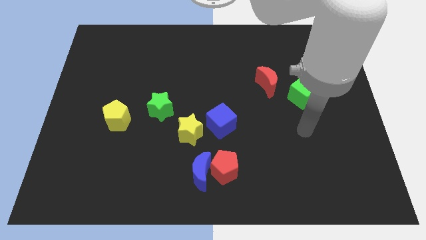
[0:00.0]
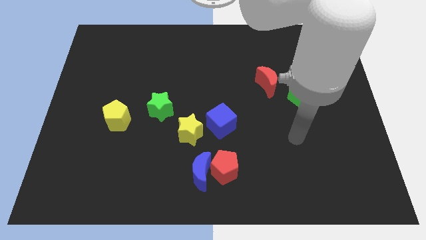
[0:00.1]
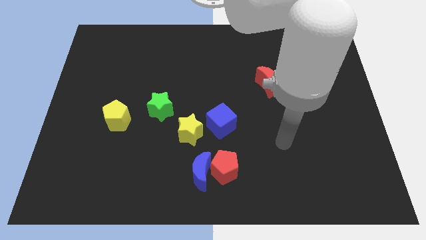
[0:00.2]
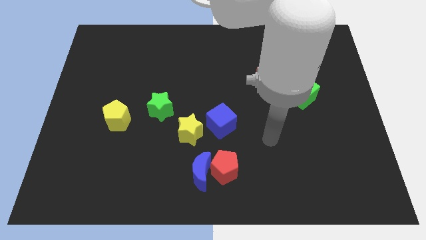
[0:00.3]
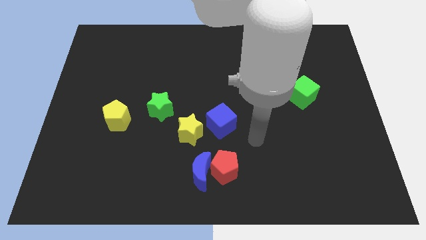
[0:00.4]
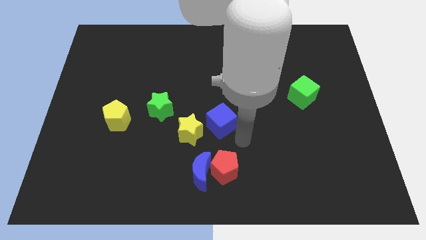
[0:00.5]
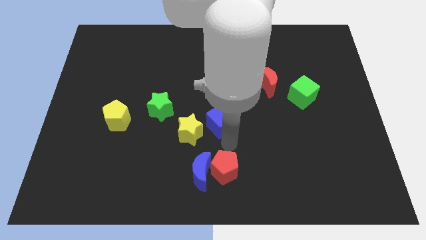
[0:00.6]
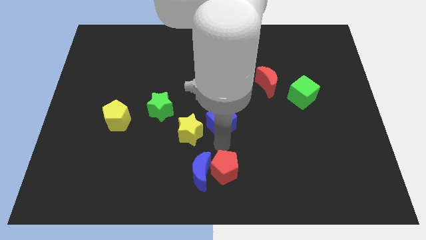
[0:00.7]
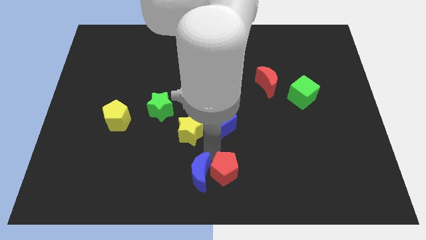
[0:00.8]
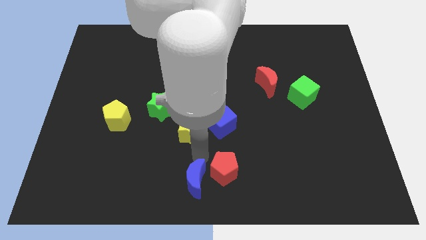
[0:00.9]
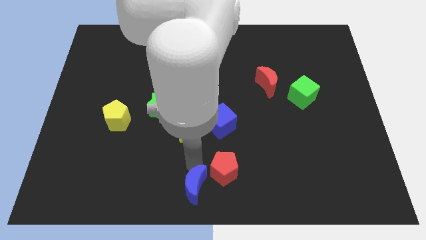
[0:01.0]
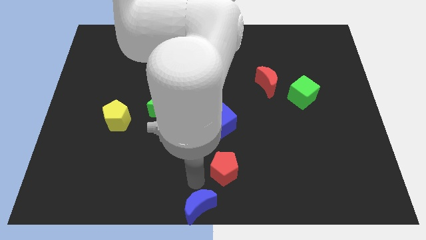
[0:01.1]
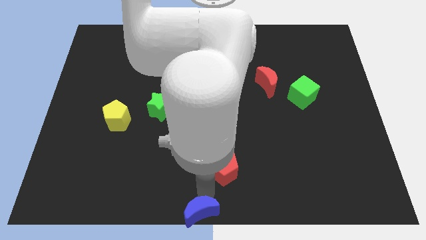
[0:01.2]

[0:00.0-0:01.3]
move the red pentagon away from the blue moon

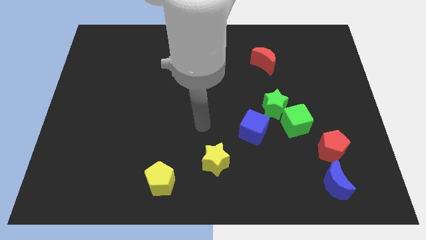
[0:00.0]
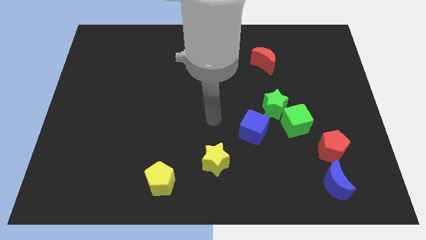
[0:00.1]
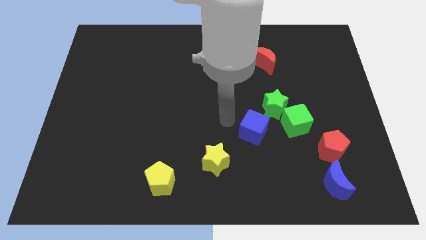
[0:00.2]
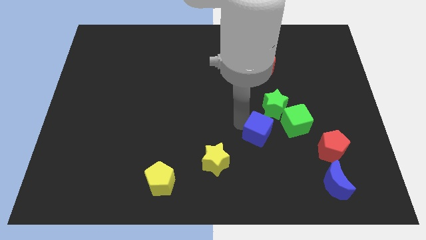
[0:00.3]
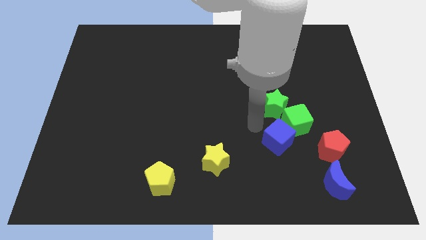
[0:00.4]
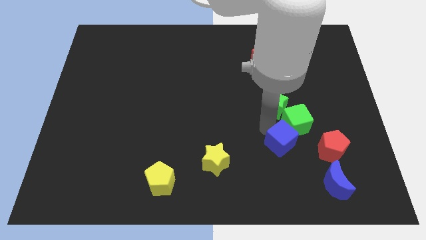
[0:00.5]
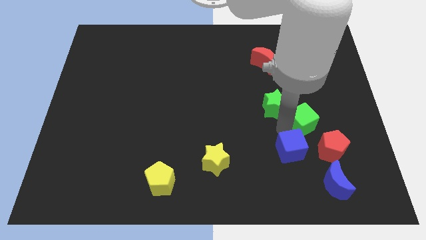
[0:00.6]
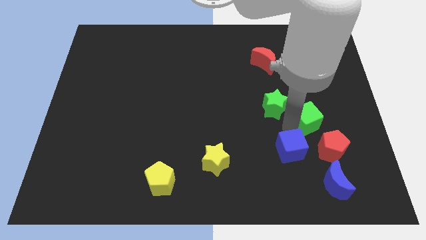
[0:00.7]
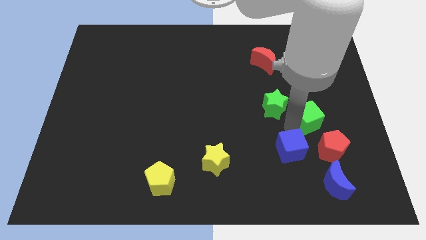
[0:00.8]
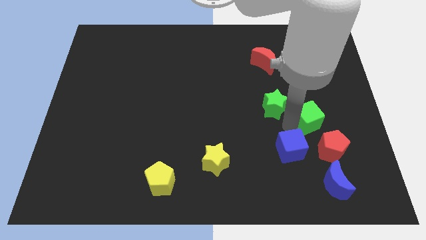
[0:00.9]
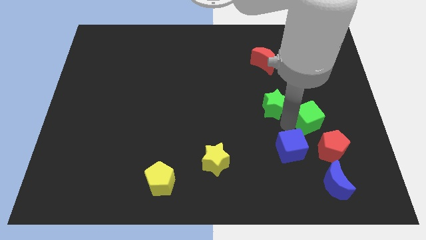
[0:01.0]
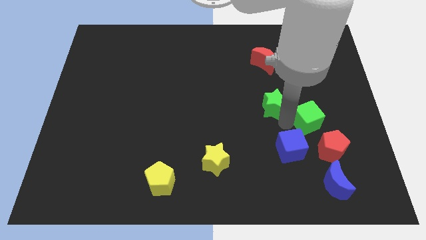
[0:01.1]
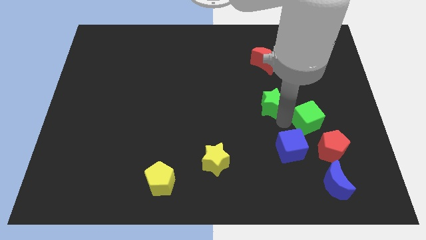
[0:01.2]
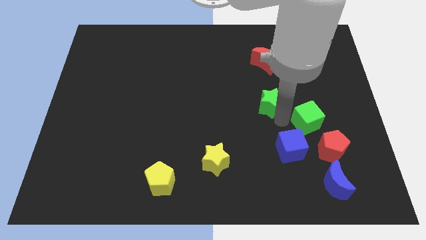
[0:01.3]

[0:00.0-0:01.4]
pull the green star apart from the green cube and blue cube

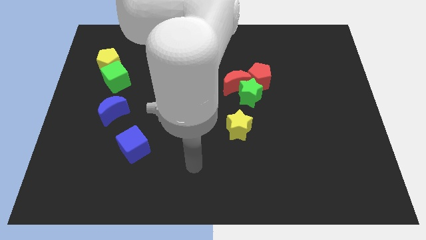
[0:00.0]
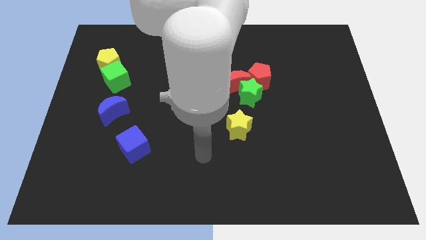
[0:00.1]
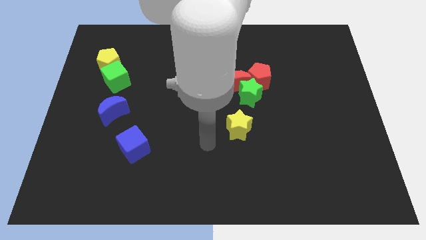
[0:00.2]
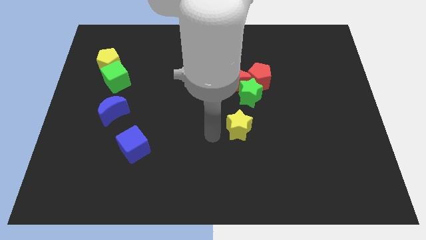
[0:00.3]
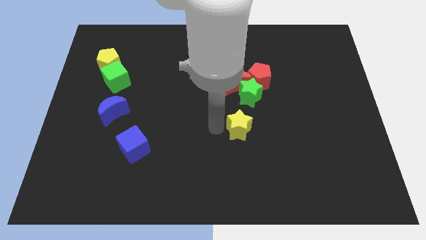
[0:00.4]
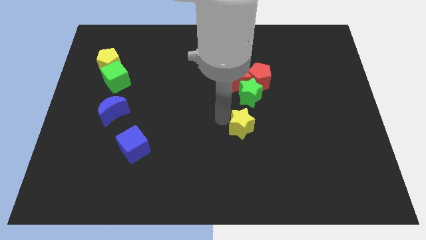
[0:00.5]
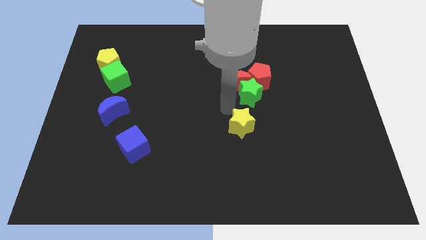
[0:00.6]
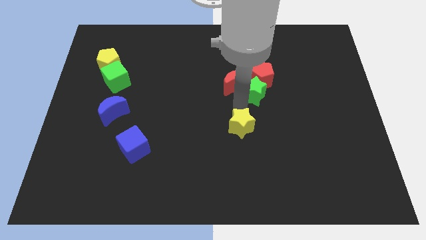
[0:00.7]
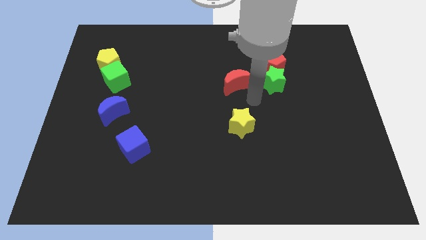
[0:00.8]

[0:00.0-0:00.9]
move the red moon away from the green star and red pentagon

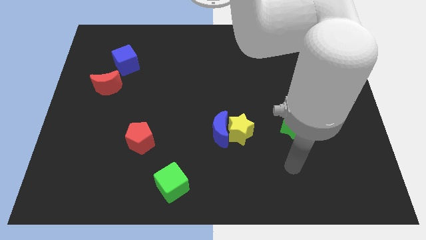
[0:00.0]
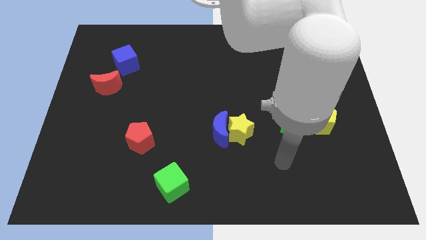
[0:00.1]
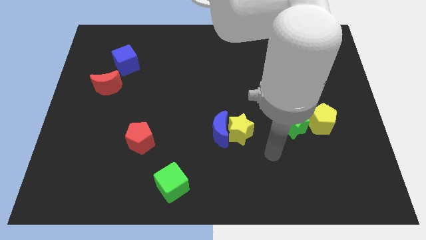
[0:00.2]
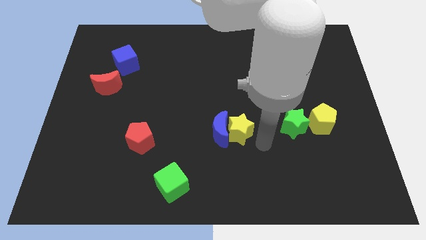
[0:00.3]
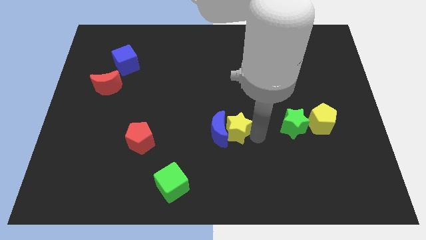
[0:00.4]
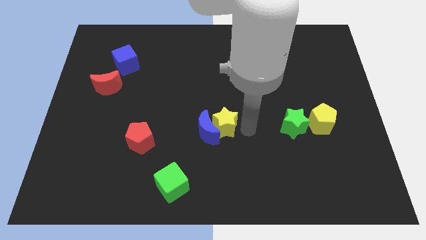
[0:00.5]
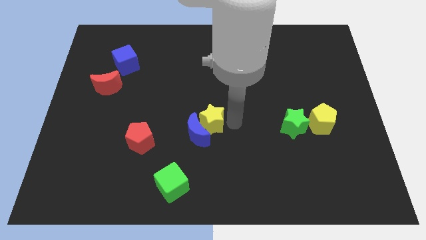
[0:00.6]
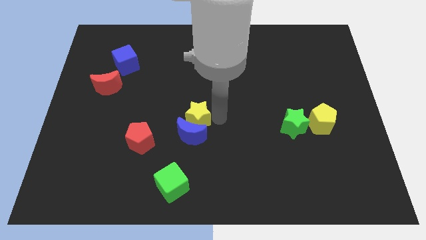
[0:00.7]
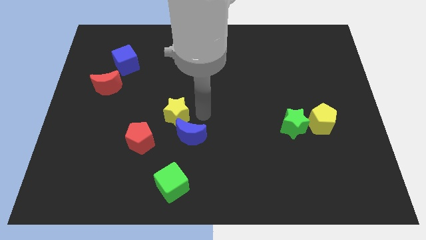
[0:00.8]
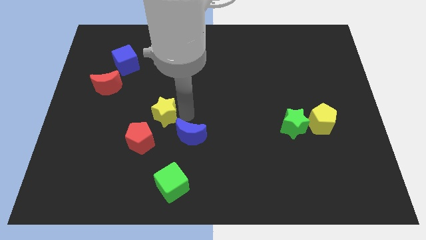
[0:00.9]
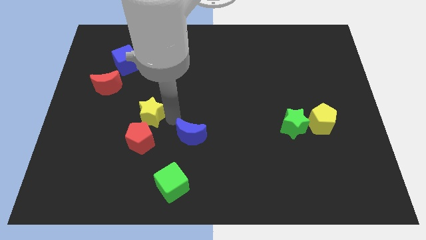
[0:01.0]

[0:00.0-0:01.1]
move the blue moon away from the yellow star

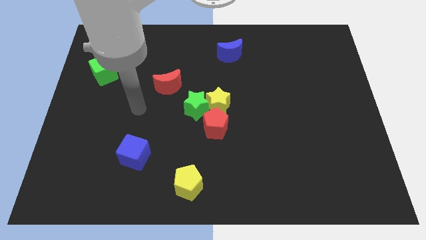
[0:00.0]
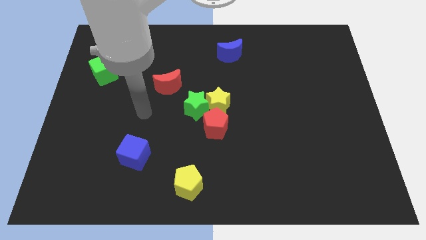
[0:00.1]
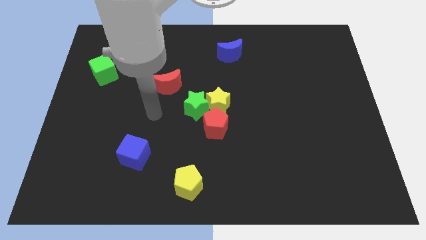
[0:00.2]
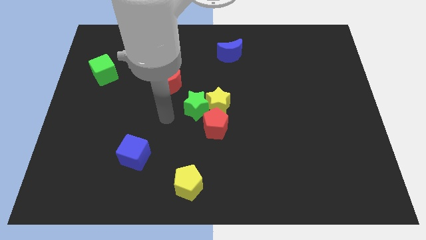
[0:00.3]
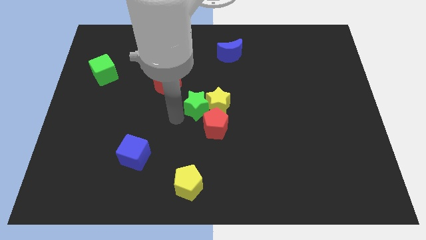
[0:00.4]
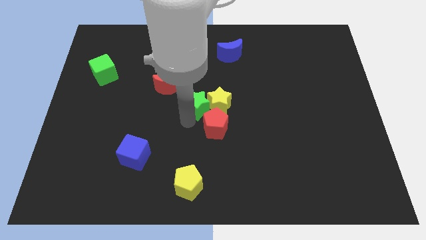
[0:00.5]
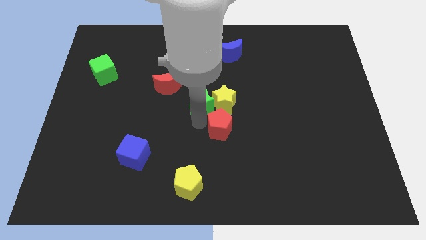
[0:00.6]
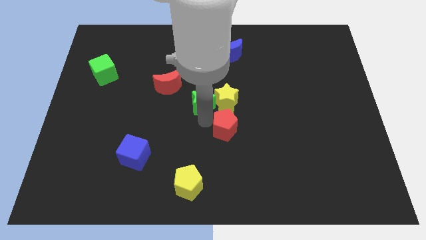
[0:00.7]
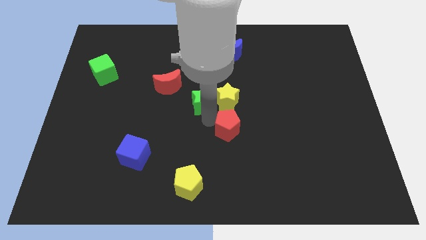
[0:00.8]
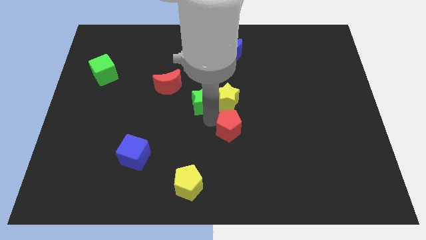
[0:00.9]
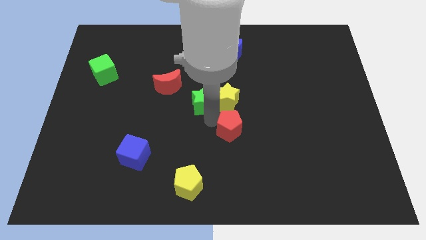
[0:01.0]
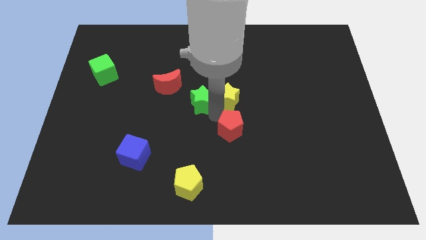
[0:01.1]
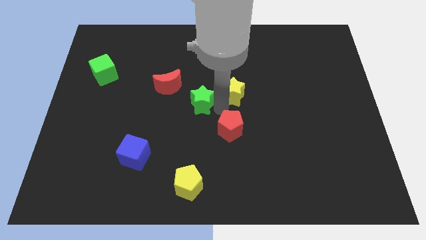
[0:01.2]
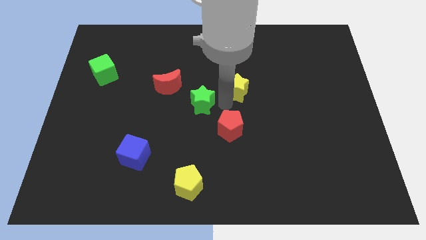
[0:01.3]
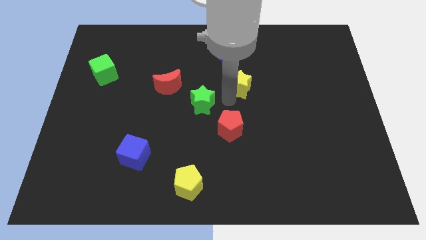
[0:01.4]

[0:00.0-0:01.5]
pull the yellow star apart from the green star and red pentagon

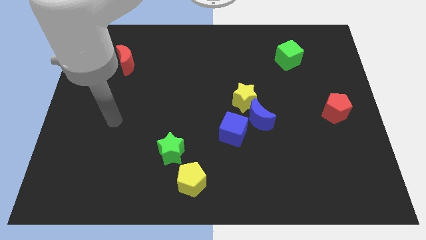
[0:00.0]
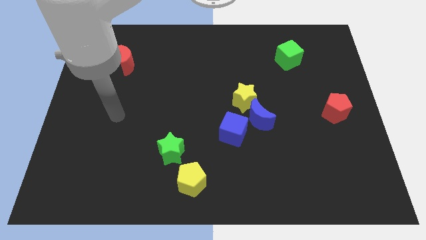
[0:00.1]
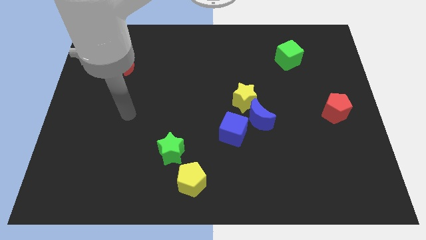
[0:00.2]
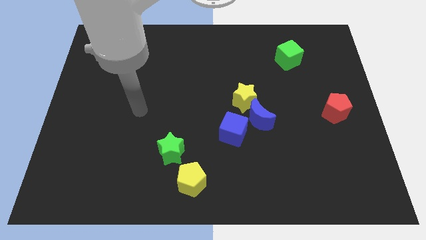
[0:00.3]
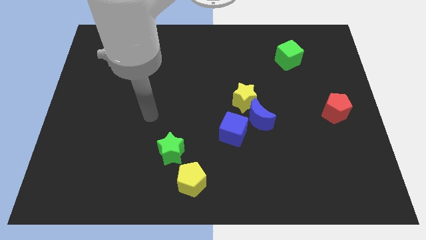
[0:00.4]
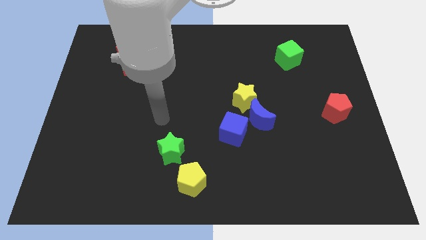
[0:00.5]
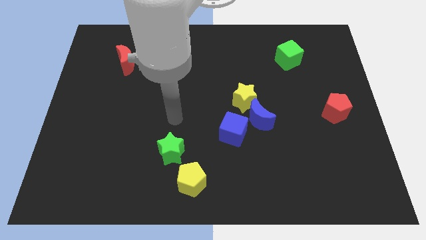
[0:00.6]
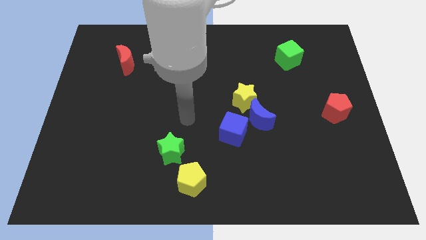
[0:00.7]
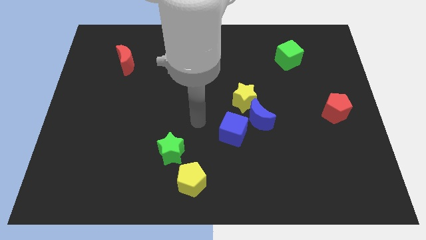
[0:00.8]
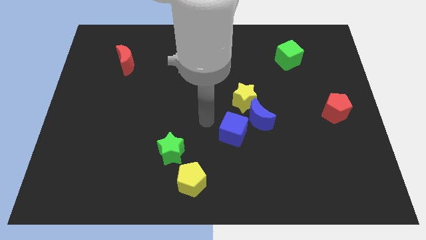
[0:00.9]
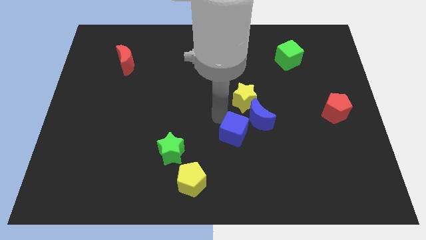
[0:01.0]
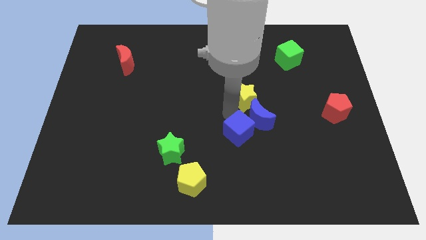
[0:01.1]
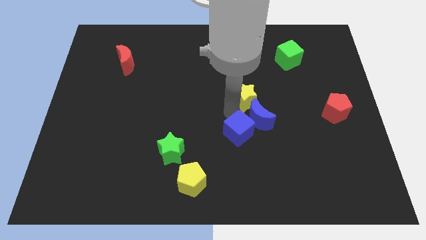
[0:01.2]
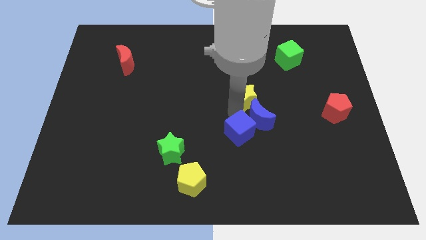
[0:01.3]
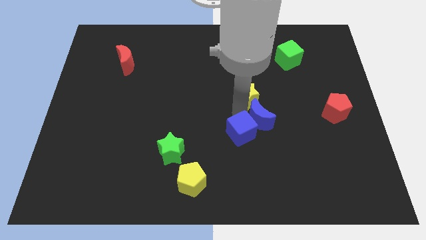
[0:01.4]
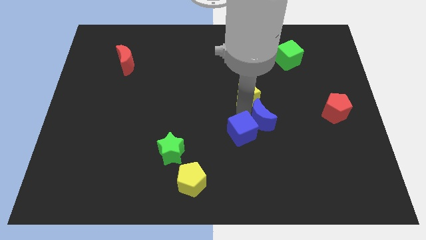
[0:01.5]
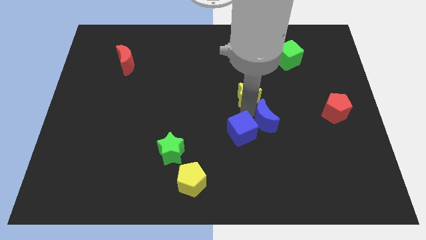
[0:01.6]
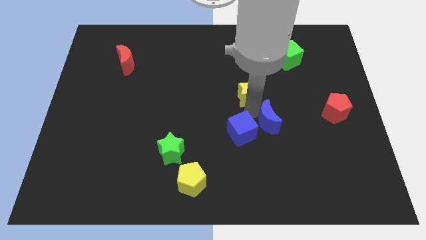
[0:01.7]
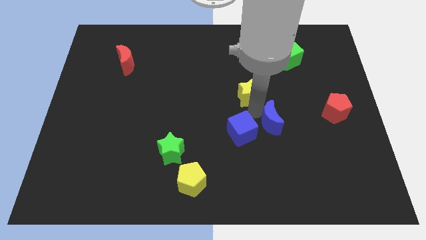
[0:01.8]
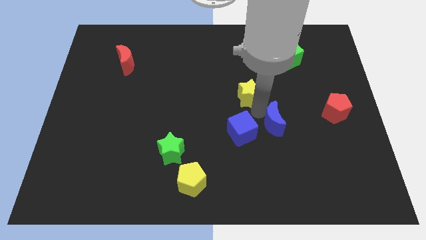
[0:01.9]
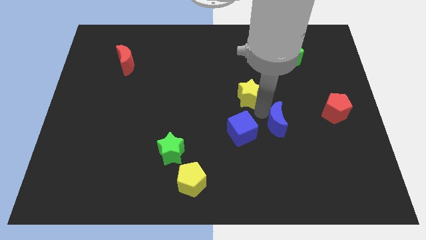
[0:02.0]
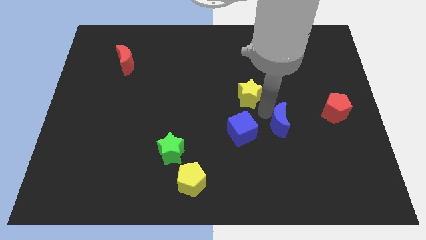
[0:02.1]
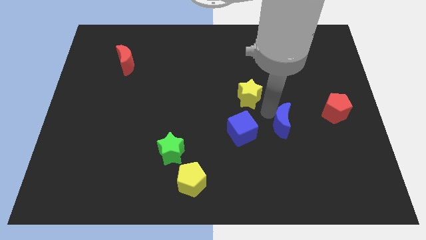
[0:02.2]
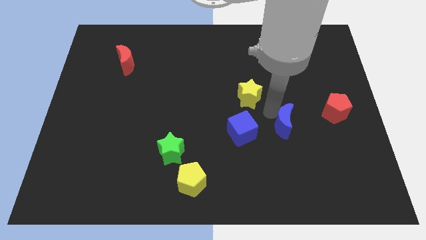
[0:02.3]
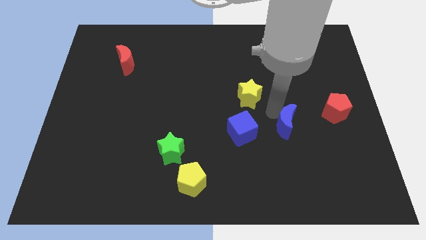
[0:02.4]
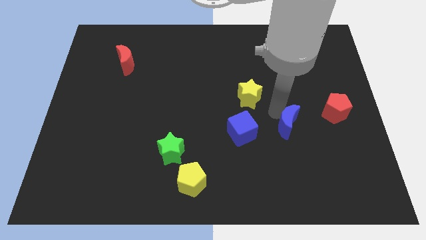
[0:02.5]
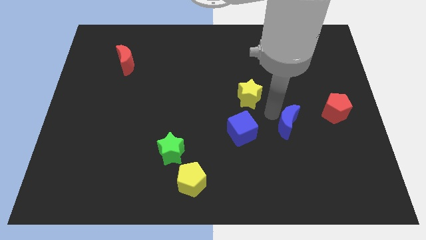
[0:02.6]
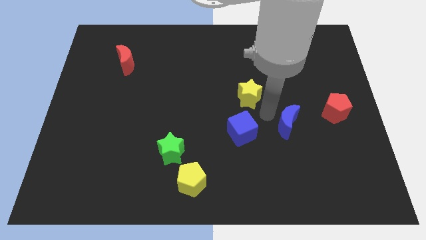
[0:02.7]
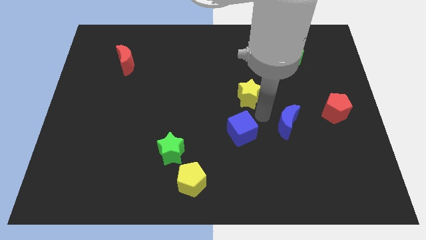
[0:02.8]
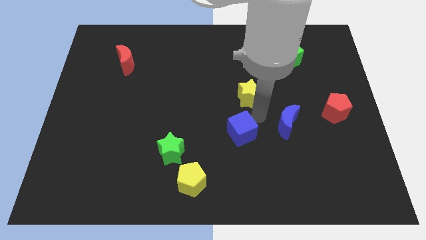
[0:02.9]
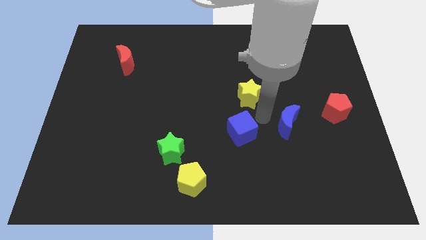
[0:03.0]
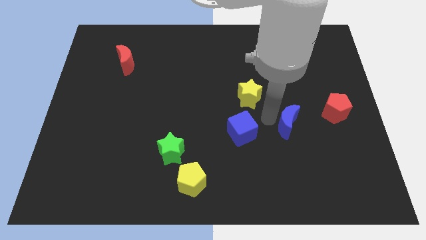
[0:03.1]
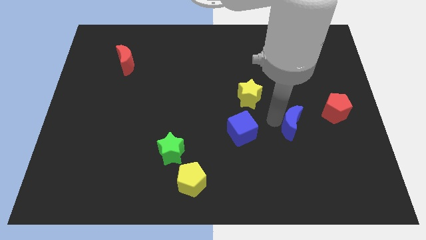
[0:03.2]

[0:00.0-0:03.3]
pull the blue moon apart from the yellow star and blue cube
